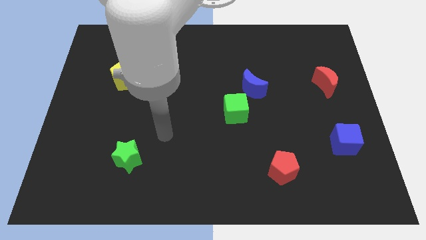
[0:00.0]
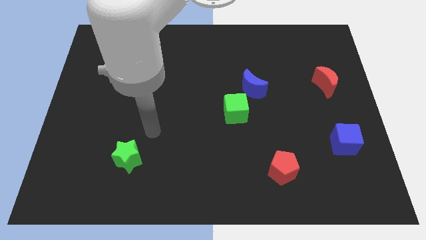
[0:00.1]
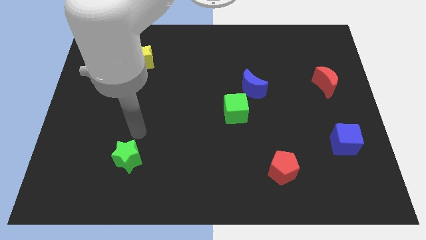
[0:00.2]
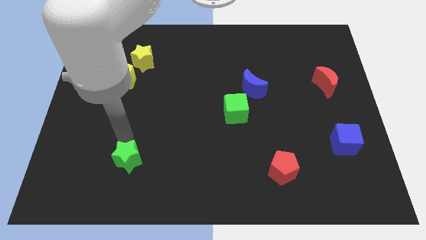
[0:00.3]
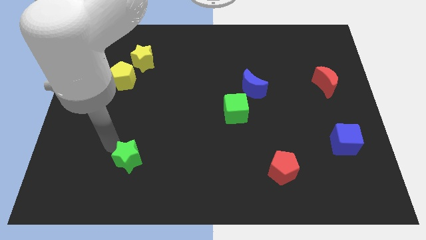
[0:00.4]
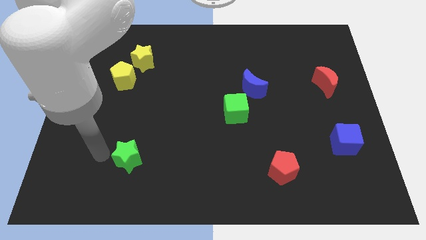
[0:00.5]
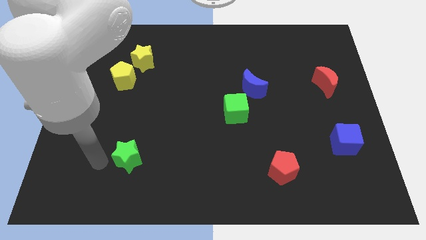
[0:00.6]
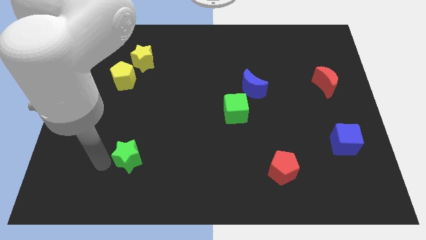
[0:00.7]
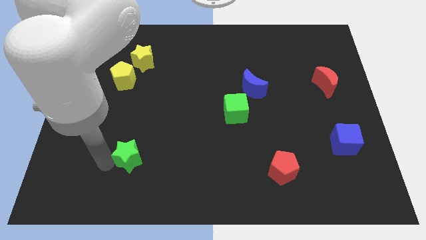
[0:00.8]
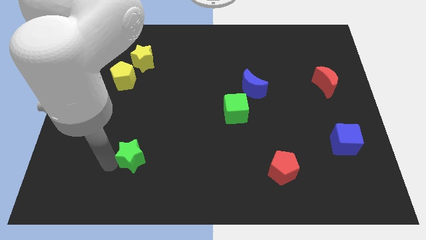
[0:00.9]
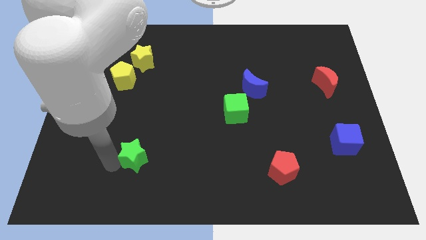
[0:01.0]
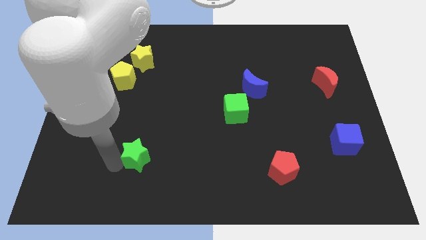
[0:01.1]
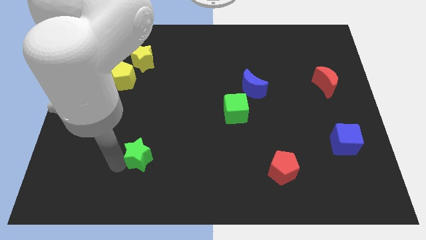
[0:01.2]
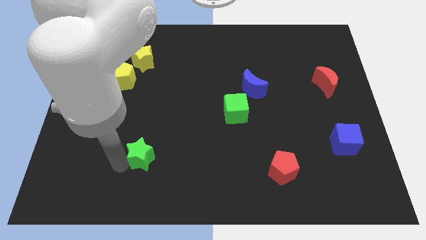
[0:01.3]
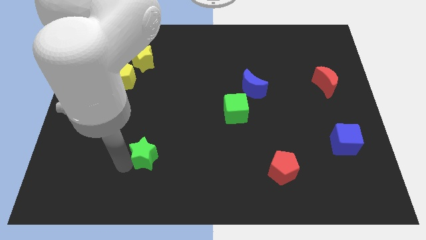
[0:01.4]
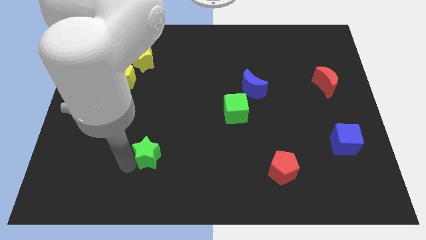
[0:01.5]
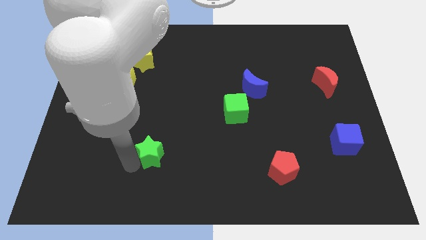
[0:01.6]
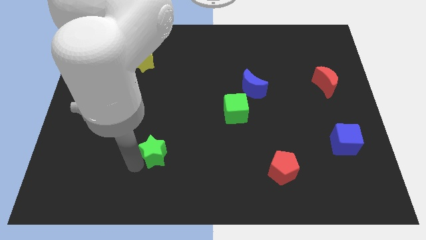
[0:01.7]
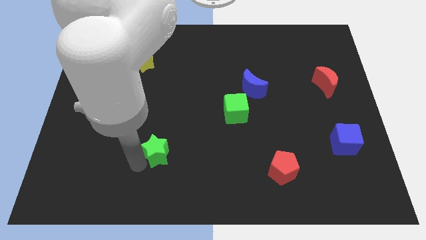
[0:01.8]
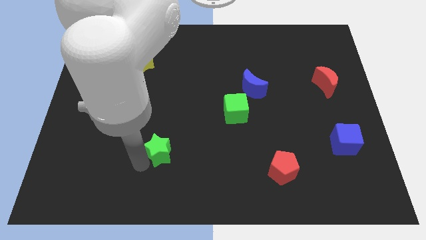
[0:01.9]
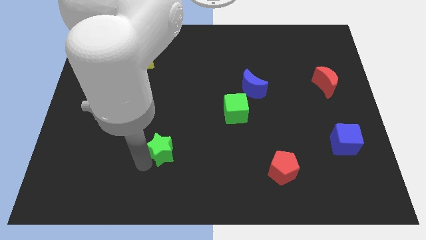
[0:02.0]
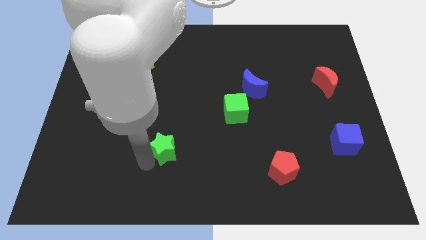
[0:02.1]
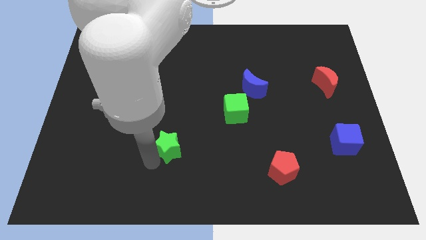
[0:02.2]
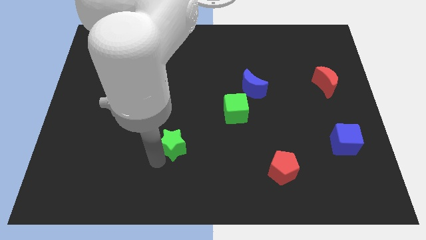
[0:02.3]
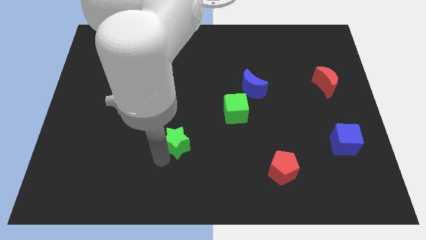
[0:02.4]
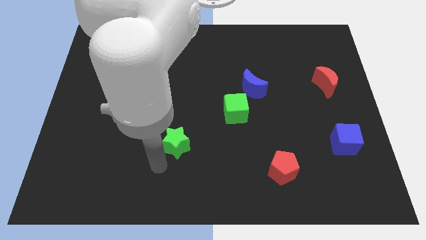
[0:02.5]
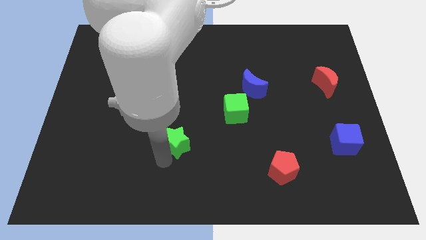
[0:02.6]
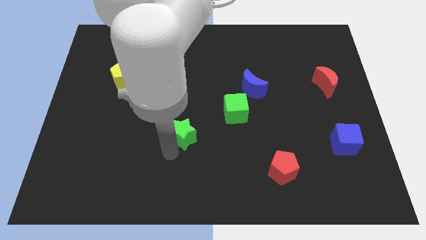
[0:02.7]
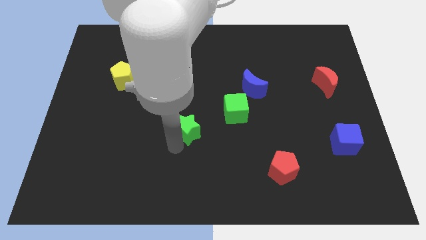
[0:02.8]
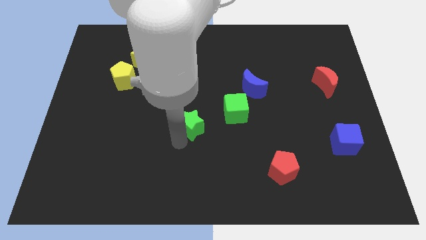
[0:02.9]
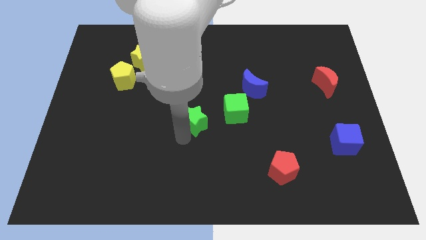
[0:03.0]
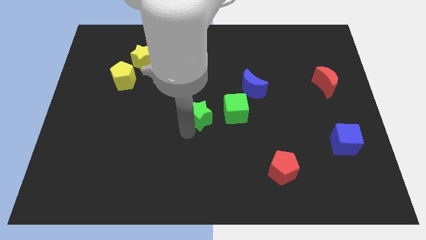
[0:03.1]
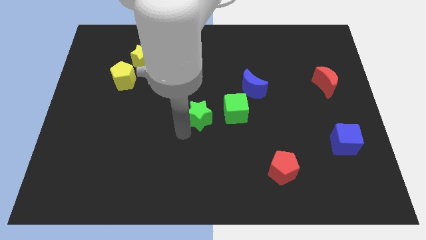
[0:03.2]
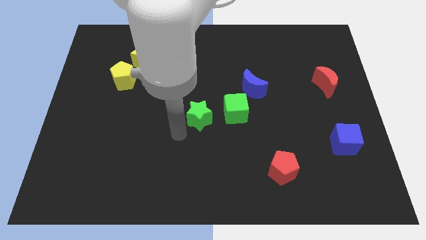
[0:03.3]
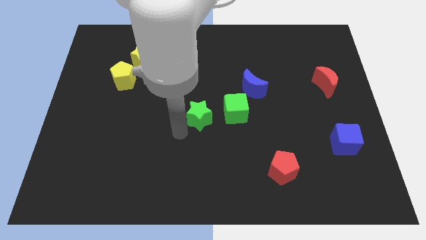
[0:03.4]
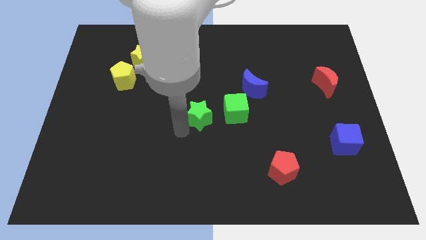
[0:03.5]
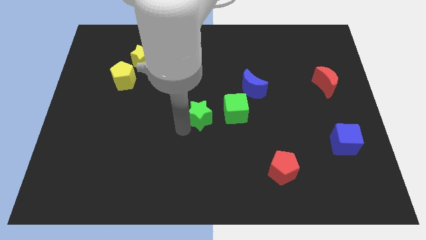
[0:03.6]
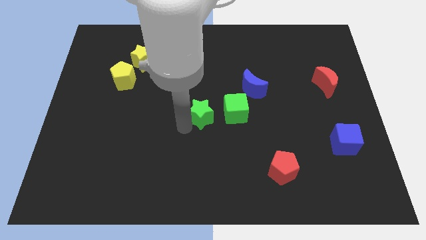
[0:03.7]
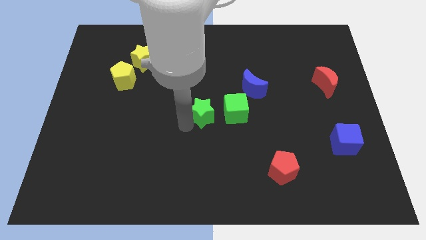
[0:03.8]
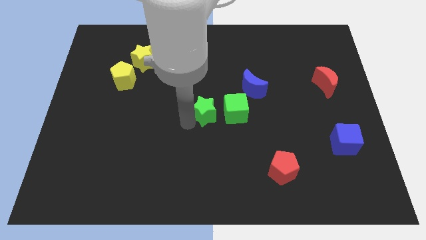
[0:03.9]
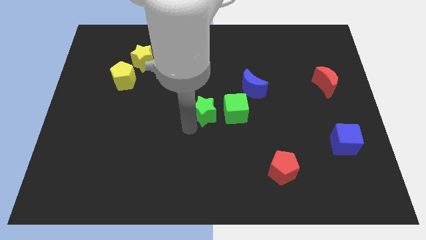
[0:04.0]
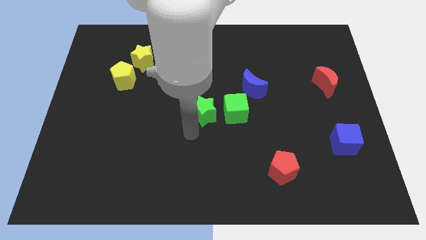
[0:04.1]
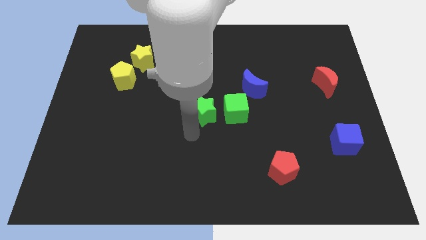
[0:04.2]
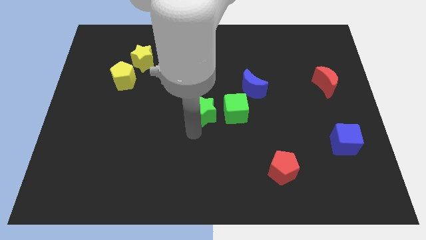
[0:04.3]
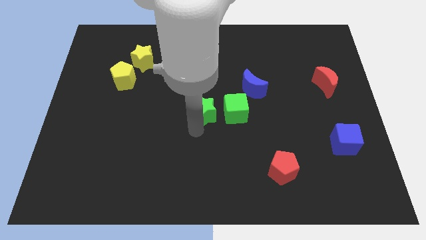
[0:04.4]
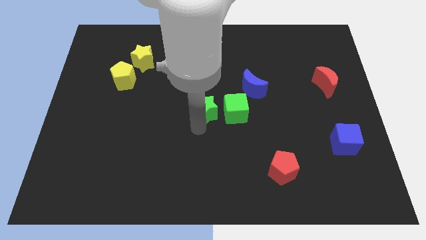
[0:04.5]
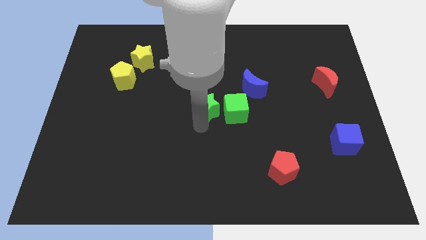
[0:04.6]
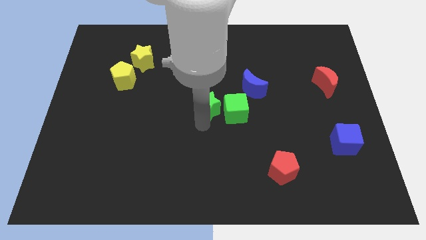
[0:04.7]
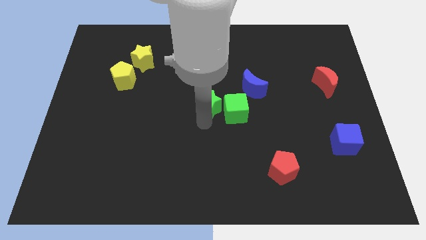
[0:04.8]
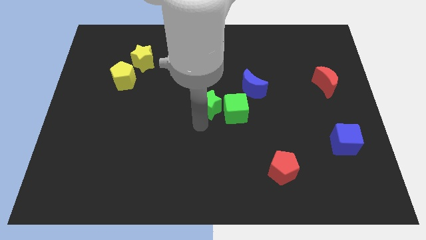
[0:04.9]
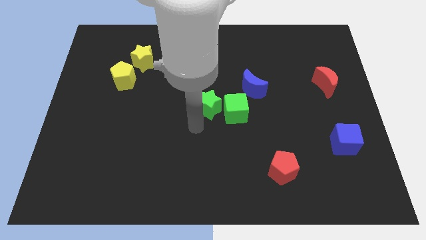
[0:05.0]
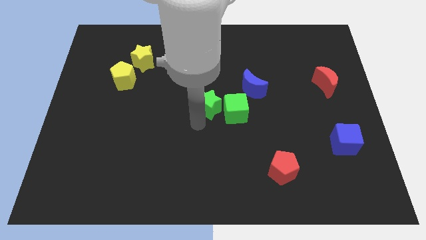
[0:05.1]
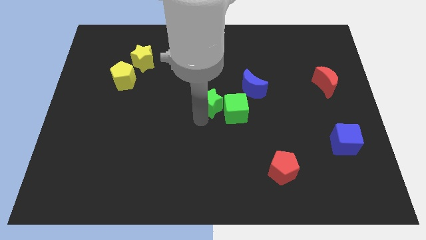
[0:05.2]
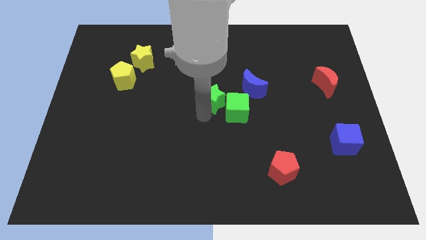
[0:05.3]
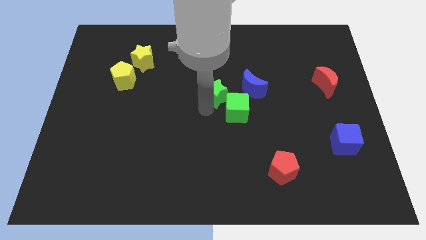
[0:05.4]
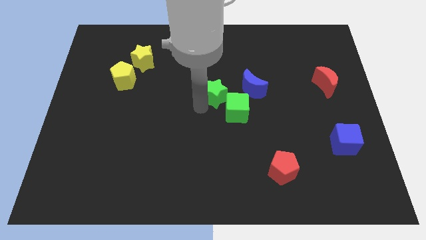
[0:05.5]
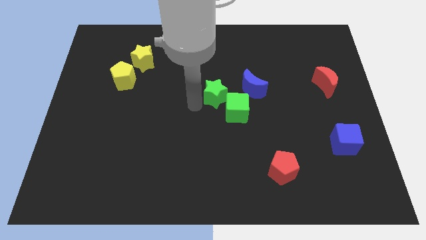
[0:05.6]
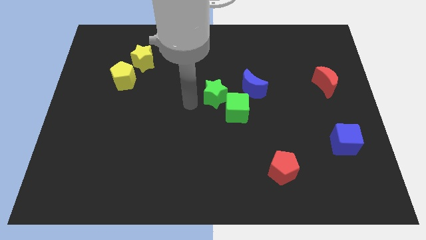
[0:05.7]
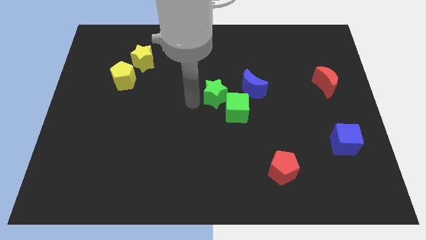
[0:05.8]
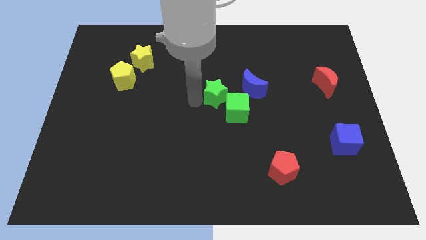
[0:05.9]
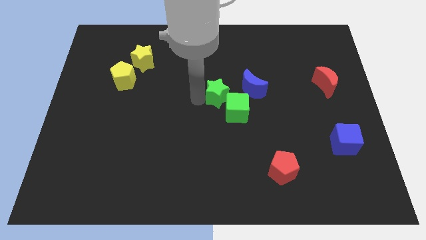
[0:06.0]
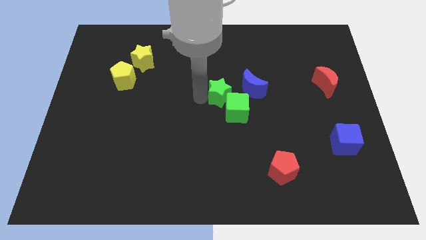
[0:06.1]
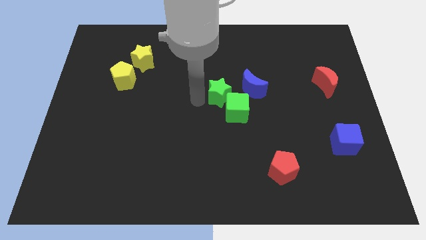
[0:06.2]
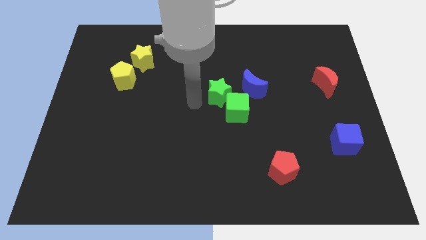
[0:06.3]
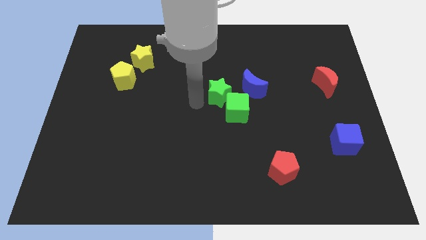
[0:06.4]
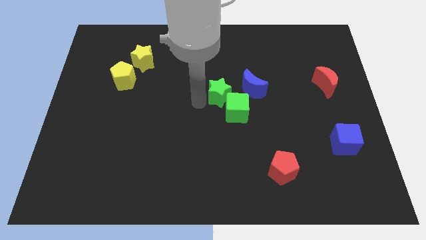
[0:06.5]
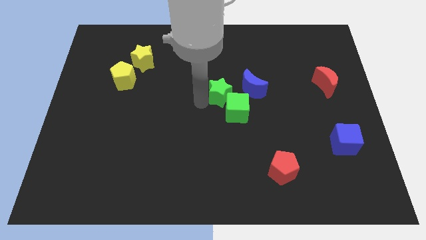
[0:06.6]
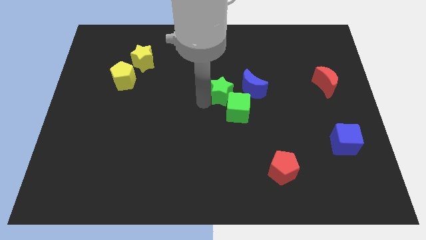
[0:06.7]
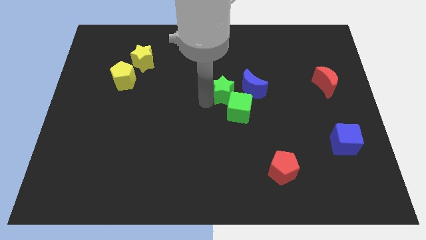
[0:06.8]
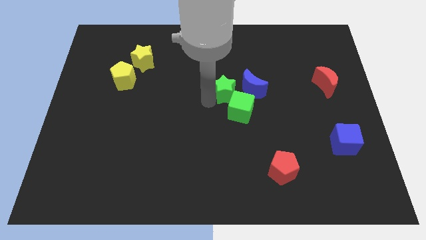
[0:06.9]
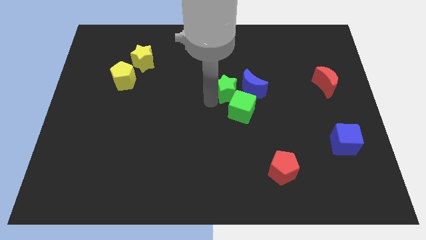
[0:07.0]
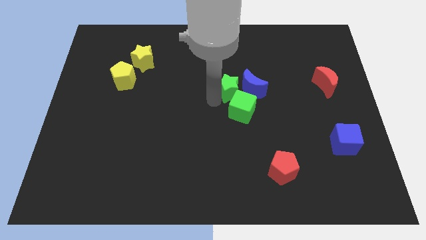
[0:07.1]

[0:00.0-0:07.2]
put the green star next to the blue moon
